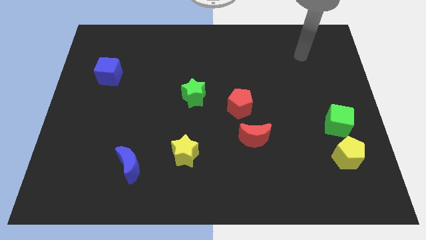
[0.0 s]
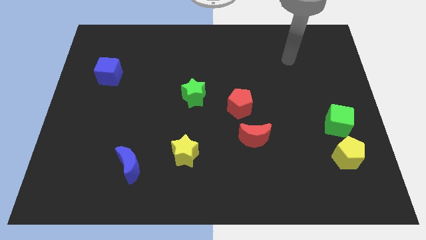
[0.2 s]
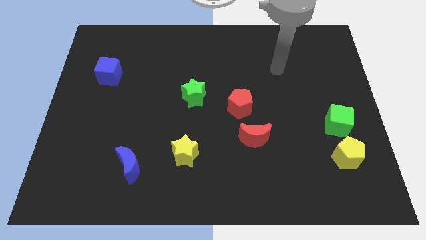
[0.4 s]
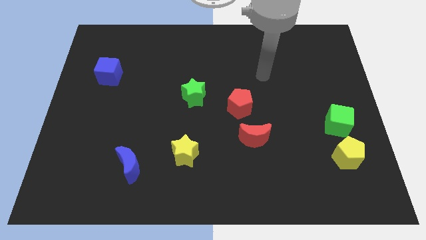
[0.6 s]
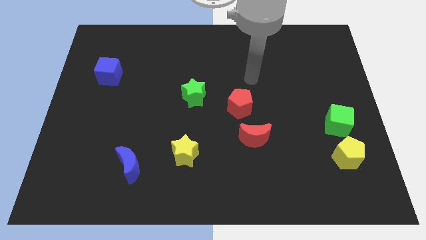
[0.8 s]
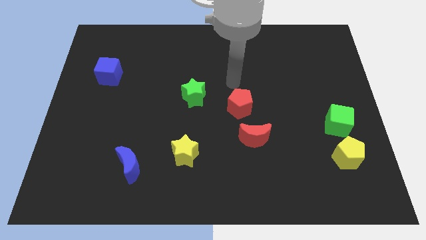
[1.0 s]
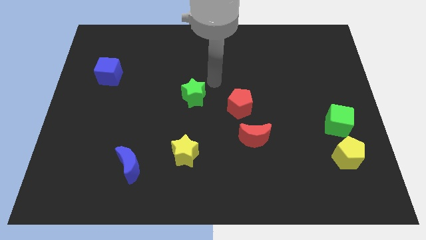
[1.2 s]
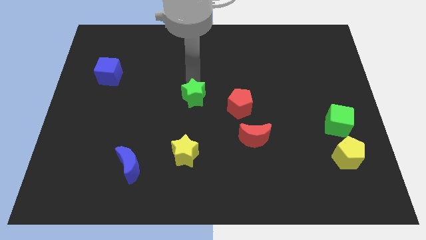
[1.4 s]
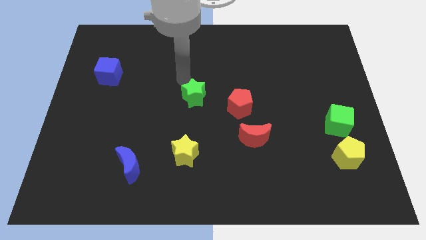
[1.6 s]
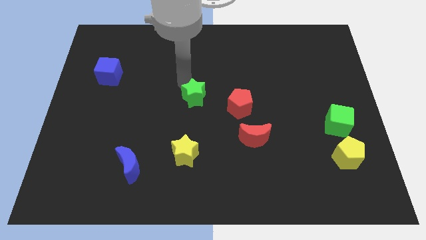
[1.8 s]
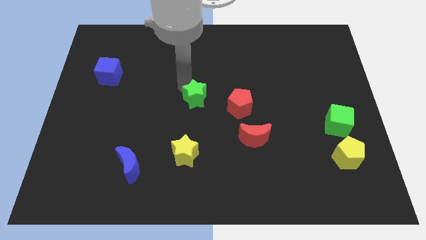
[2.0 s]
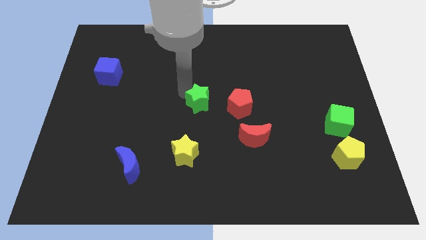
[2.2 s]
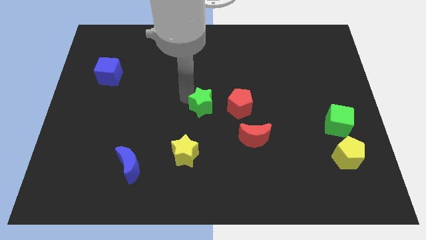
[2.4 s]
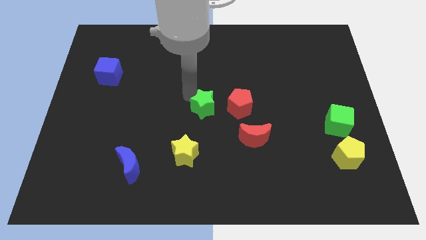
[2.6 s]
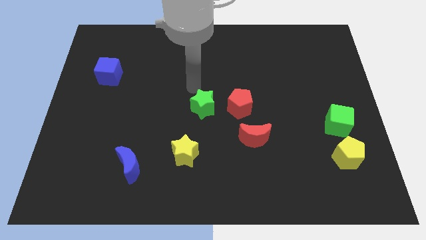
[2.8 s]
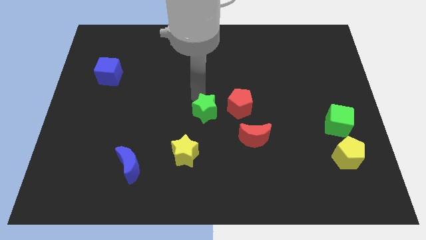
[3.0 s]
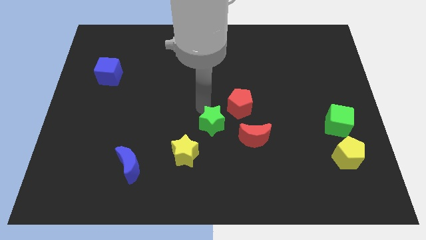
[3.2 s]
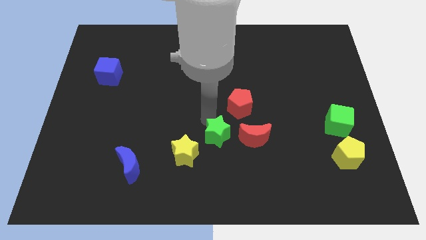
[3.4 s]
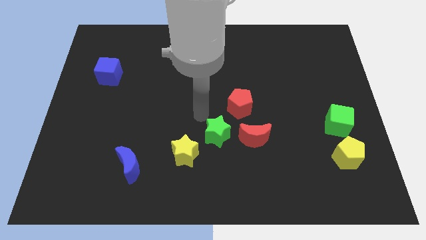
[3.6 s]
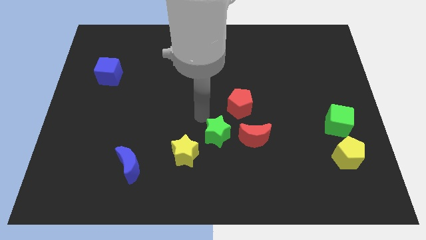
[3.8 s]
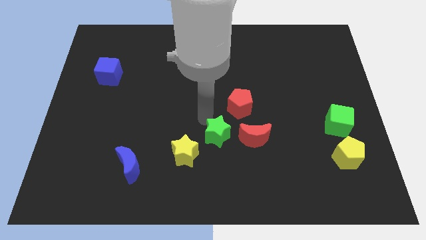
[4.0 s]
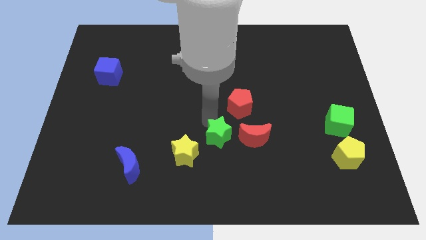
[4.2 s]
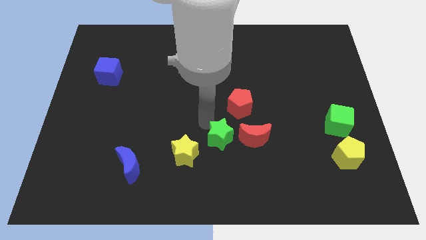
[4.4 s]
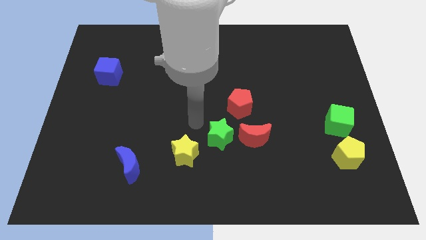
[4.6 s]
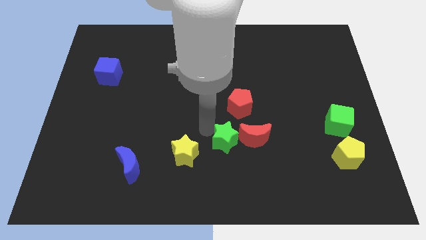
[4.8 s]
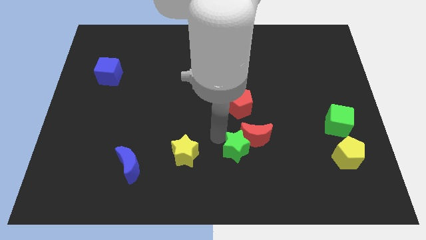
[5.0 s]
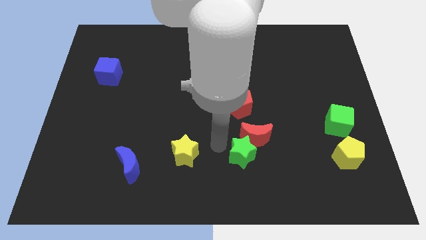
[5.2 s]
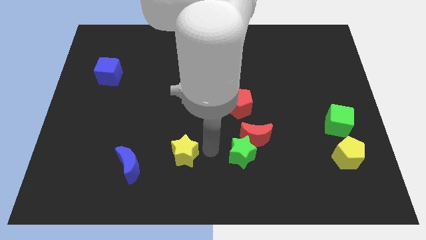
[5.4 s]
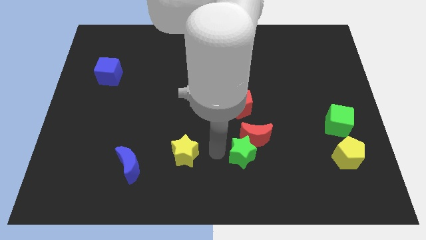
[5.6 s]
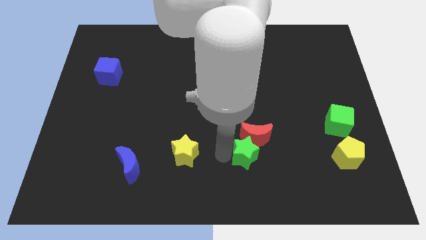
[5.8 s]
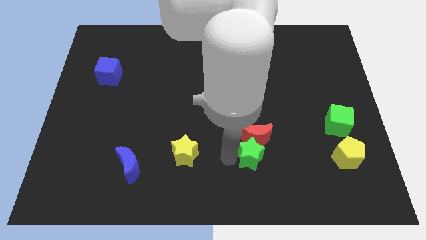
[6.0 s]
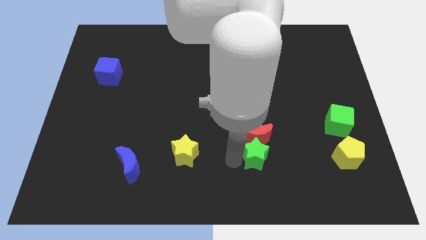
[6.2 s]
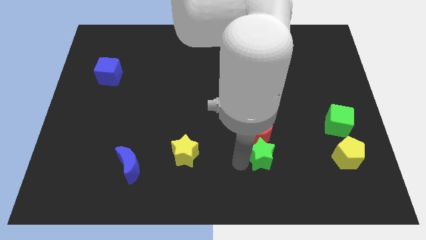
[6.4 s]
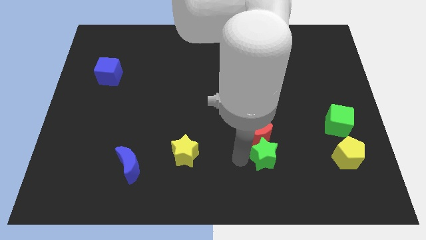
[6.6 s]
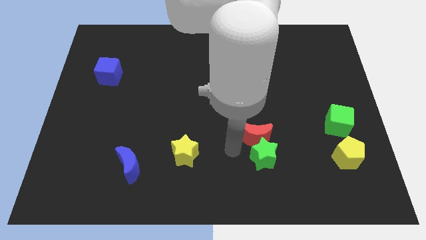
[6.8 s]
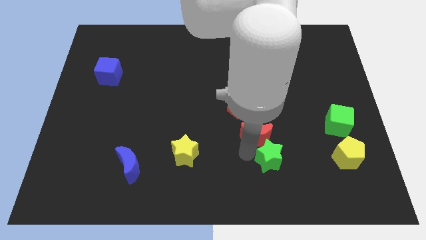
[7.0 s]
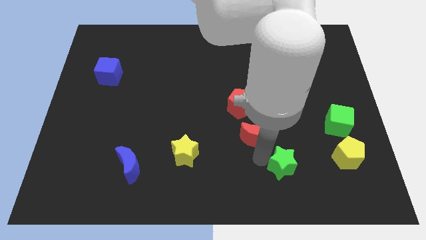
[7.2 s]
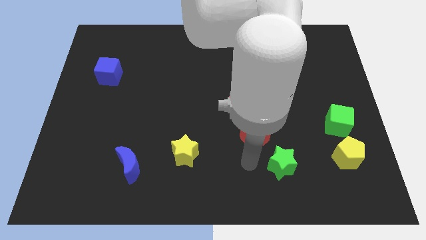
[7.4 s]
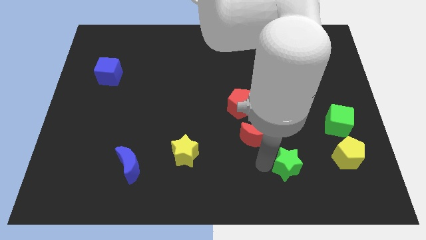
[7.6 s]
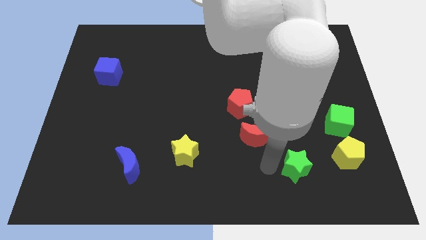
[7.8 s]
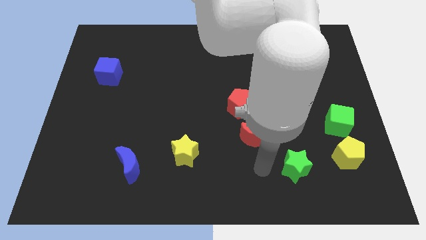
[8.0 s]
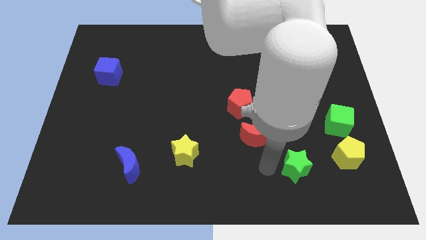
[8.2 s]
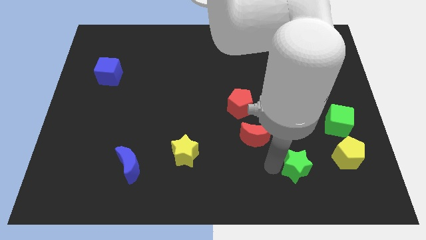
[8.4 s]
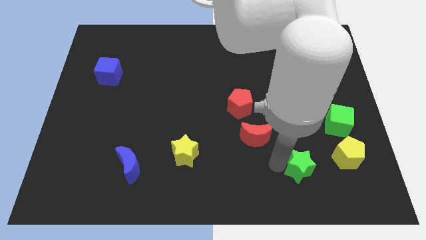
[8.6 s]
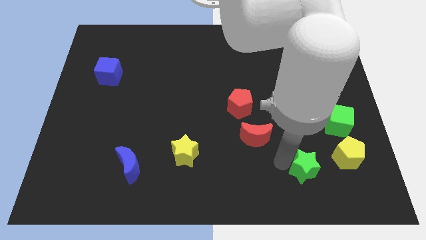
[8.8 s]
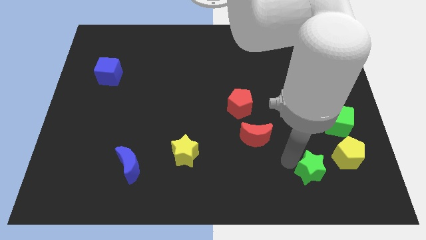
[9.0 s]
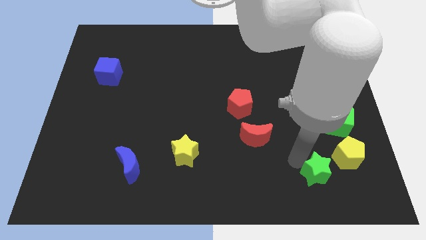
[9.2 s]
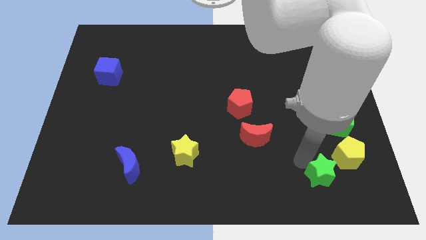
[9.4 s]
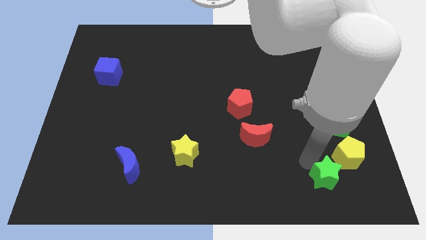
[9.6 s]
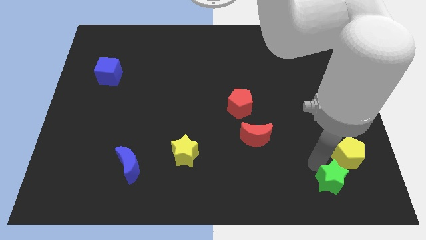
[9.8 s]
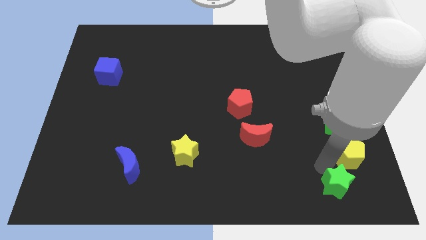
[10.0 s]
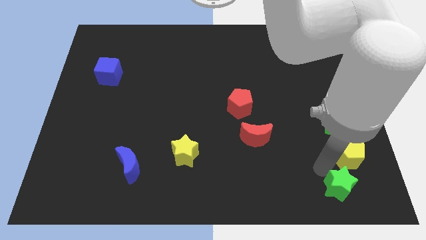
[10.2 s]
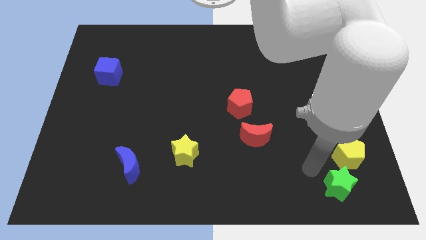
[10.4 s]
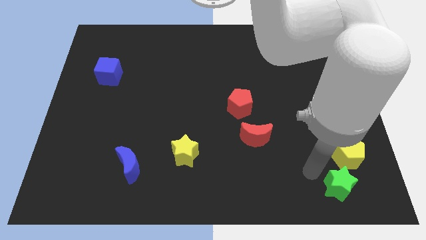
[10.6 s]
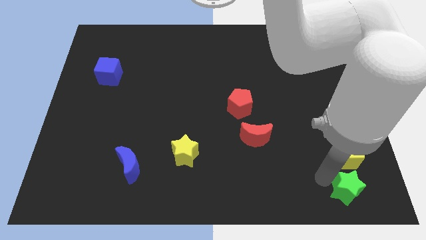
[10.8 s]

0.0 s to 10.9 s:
push the green star to the bottom right
